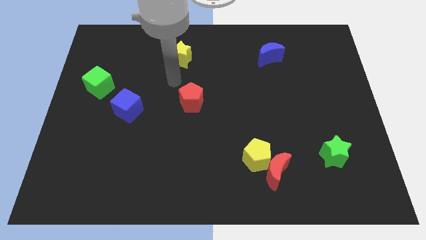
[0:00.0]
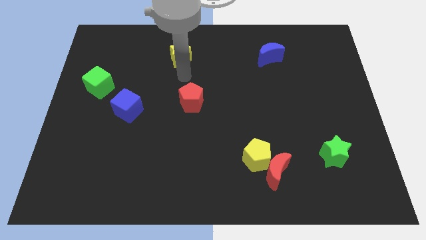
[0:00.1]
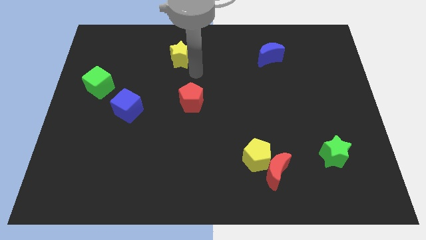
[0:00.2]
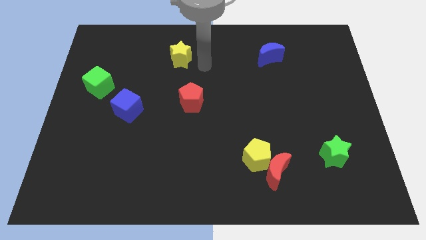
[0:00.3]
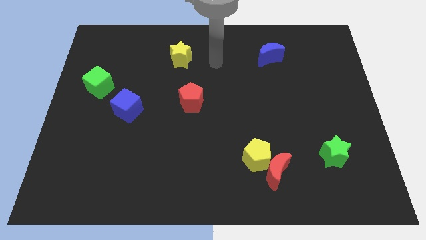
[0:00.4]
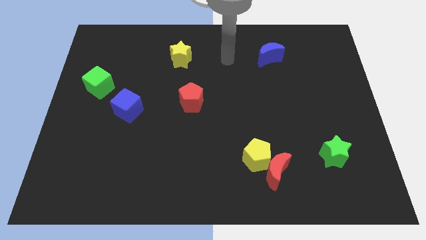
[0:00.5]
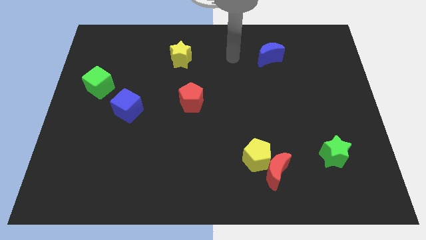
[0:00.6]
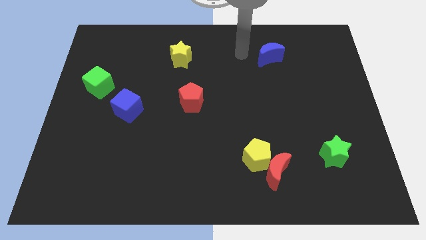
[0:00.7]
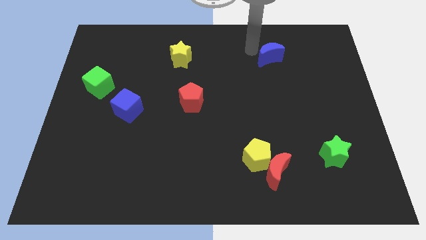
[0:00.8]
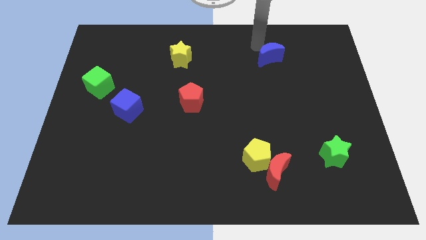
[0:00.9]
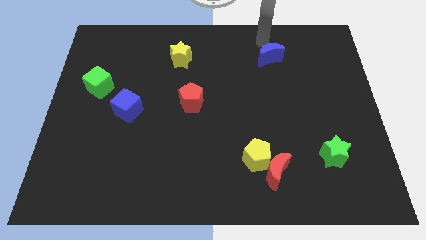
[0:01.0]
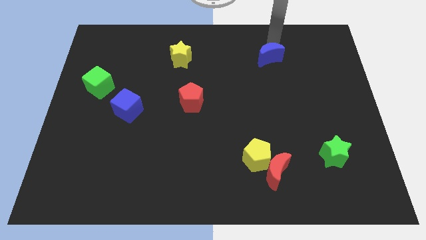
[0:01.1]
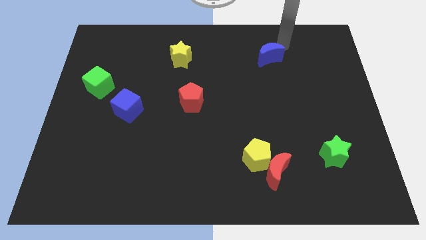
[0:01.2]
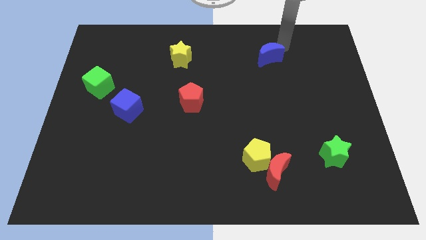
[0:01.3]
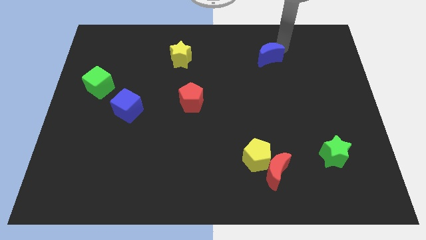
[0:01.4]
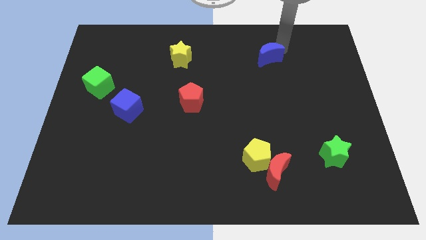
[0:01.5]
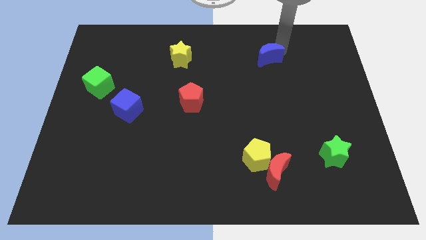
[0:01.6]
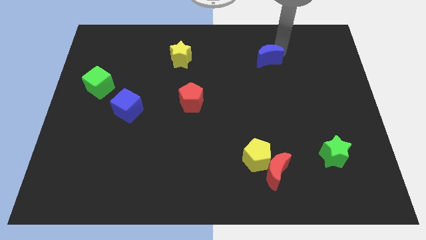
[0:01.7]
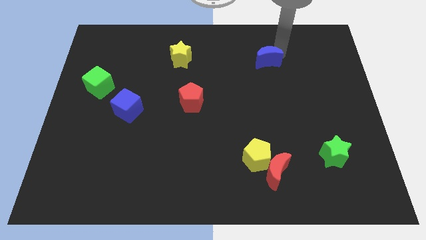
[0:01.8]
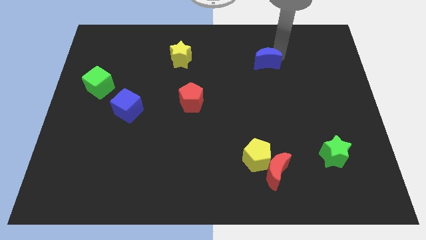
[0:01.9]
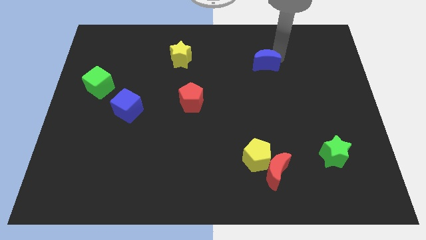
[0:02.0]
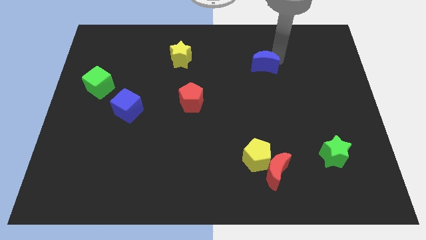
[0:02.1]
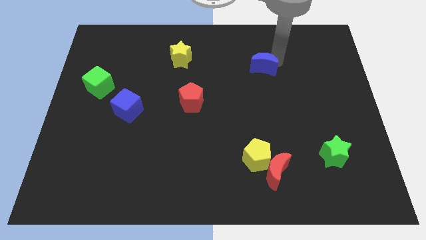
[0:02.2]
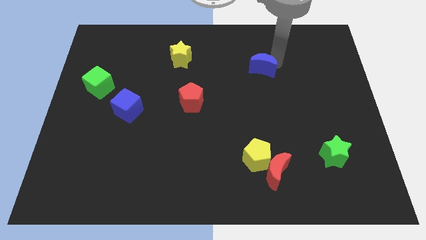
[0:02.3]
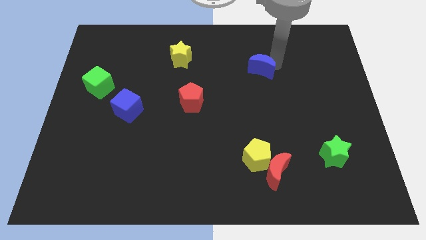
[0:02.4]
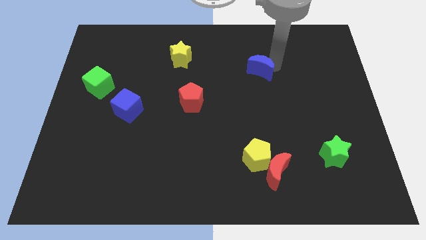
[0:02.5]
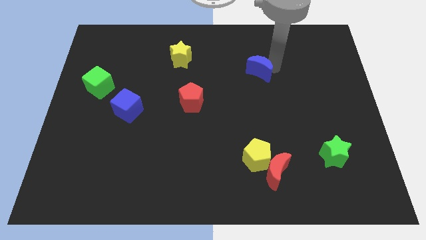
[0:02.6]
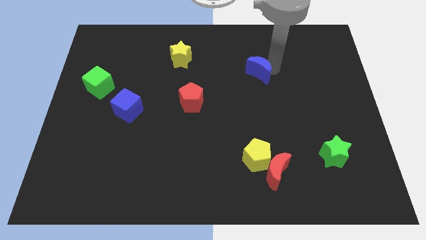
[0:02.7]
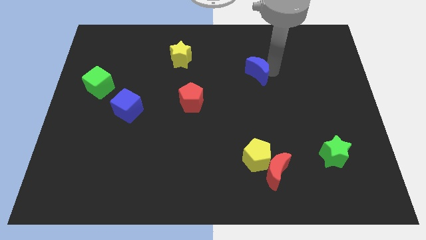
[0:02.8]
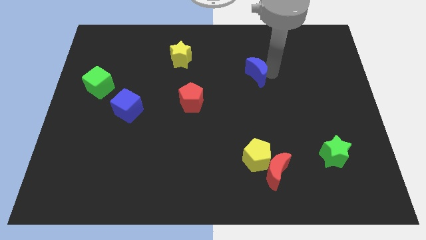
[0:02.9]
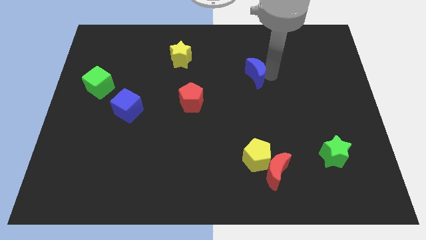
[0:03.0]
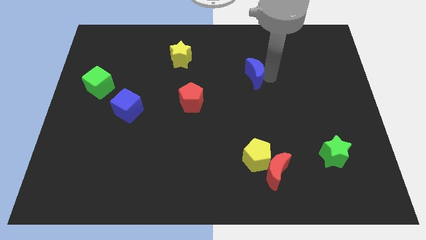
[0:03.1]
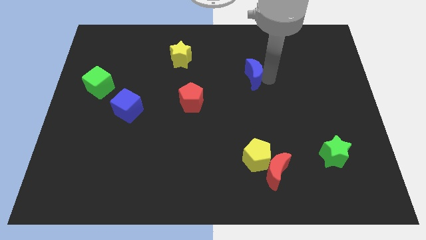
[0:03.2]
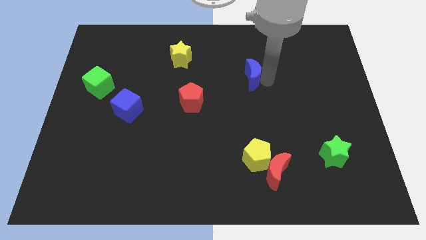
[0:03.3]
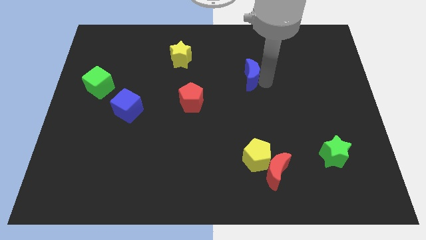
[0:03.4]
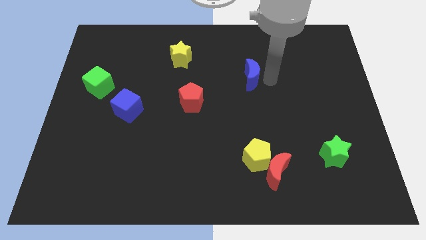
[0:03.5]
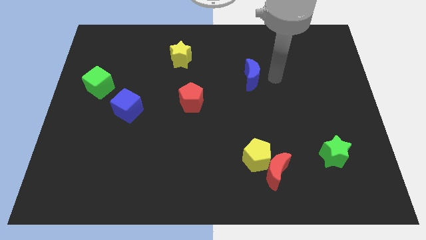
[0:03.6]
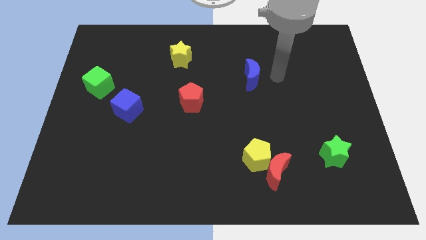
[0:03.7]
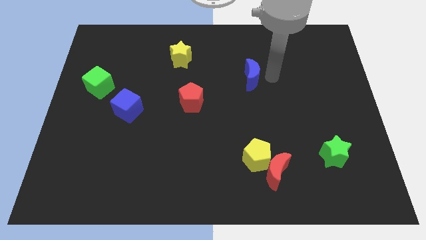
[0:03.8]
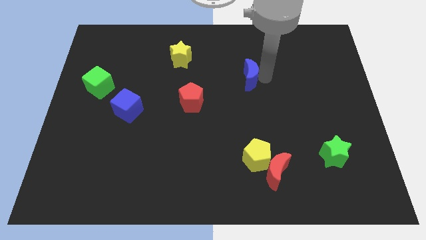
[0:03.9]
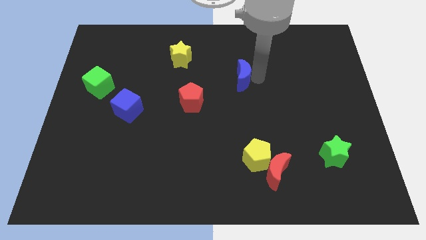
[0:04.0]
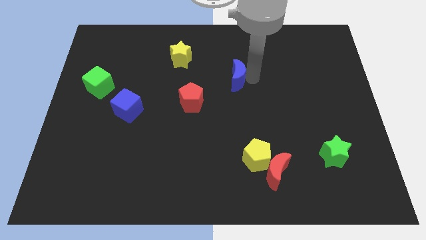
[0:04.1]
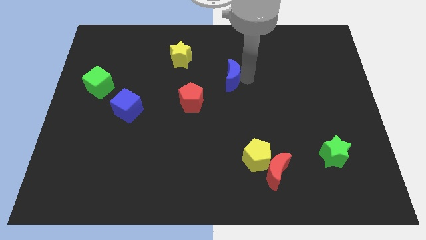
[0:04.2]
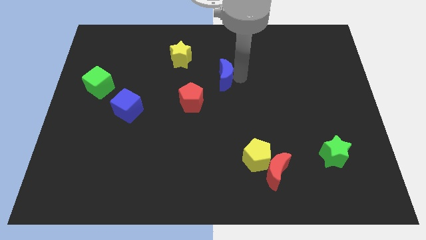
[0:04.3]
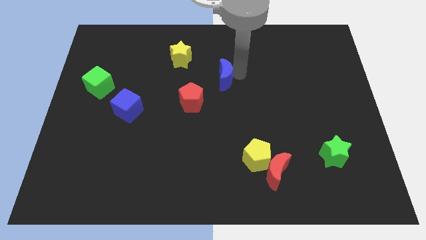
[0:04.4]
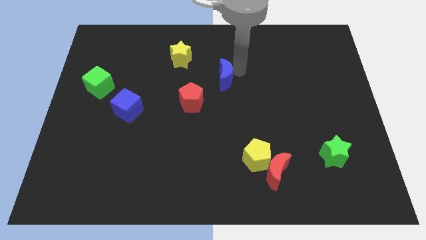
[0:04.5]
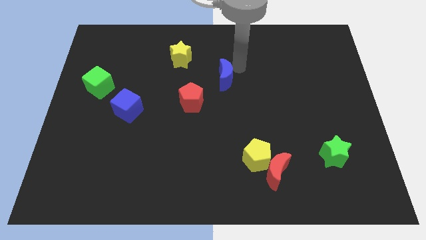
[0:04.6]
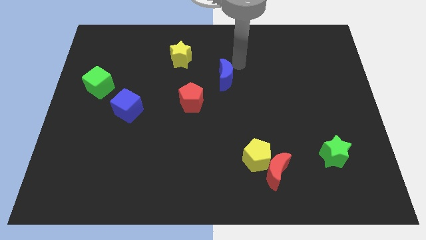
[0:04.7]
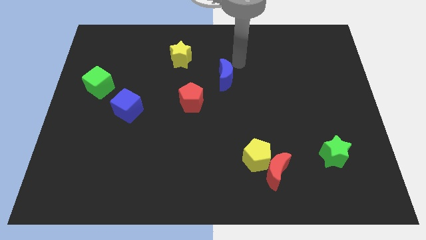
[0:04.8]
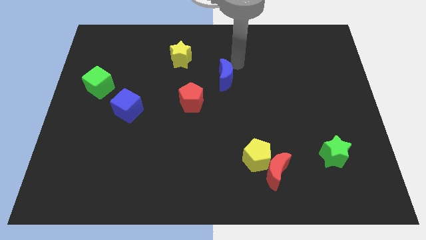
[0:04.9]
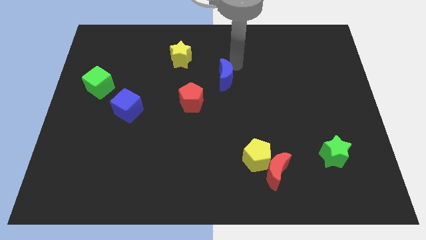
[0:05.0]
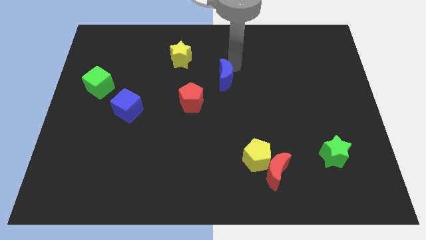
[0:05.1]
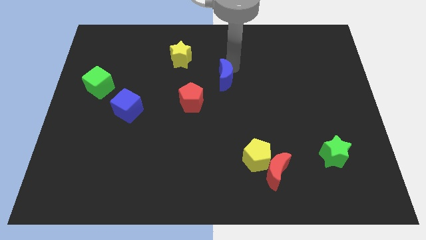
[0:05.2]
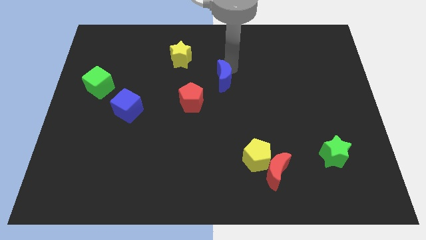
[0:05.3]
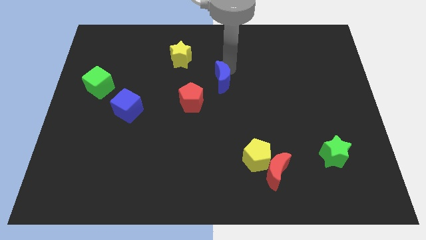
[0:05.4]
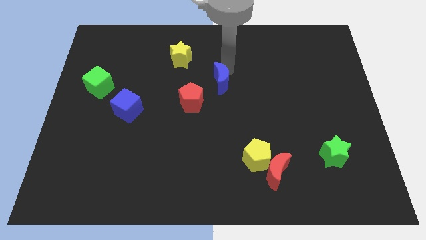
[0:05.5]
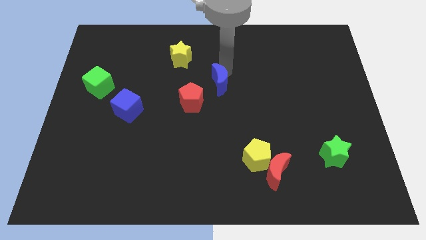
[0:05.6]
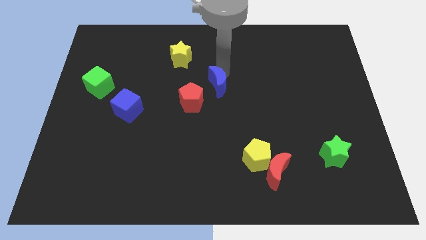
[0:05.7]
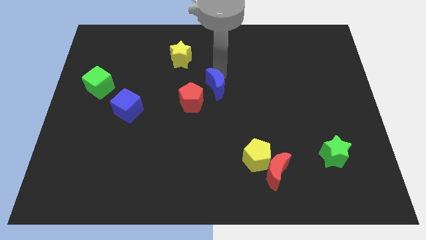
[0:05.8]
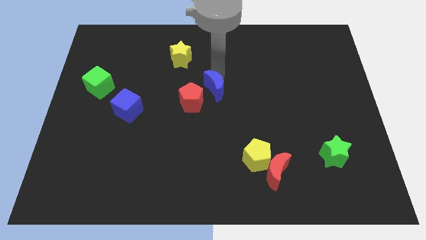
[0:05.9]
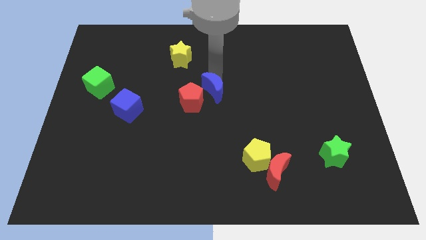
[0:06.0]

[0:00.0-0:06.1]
move the blue moon next to the red pentagon

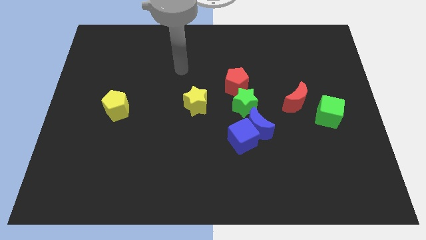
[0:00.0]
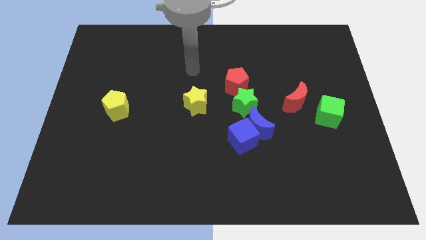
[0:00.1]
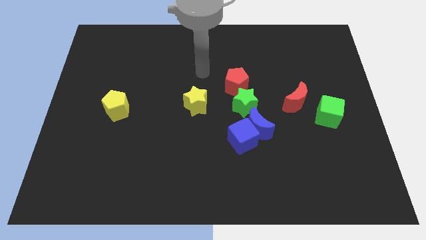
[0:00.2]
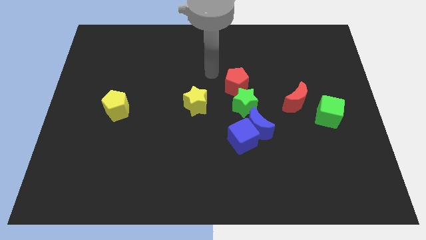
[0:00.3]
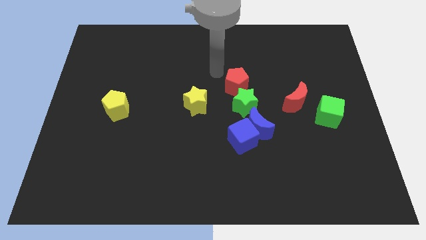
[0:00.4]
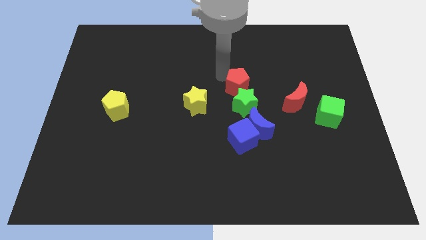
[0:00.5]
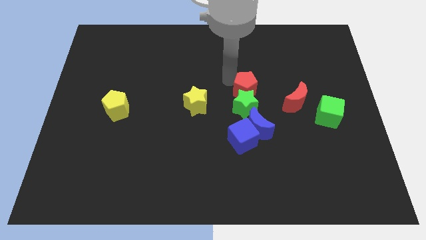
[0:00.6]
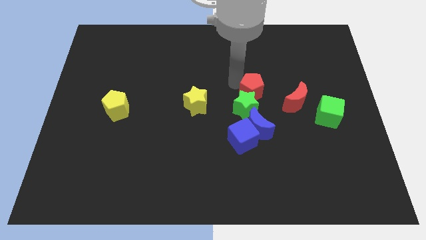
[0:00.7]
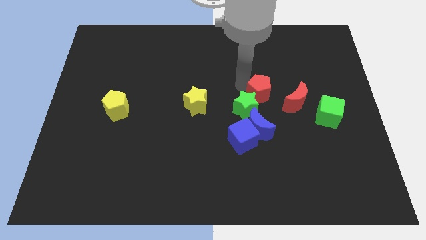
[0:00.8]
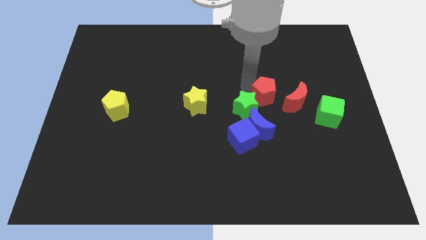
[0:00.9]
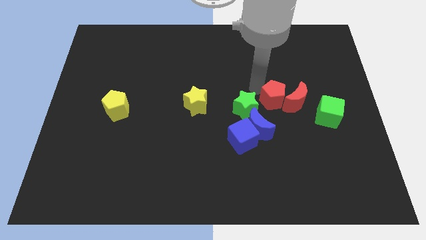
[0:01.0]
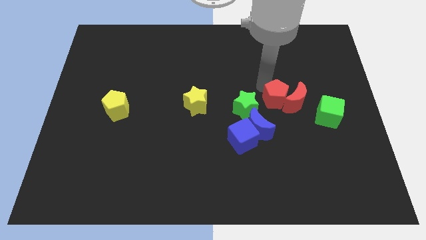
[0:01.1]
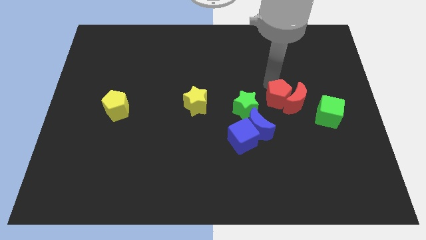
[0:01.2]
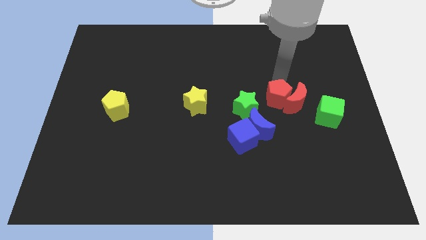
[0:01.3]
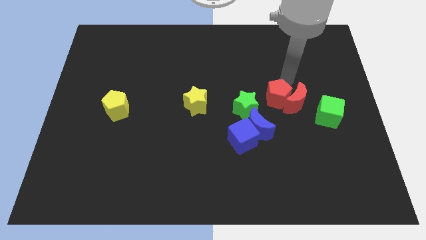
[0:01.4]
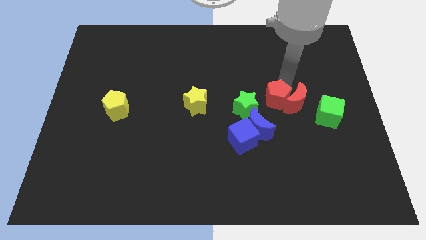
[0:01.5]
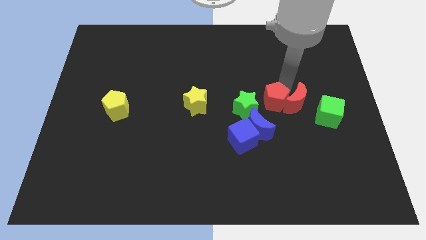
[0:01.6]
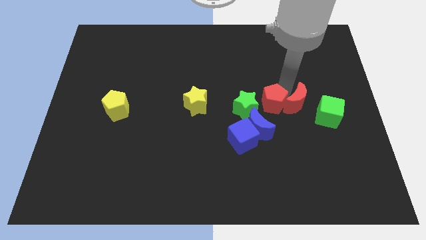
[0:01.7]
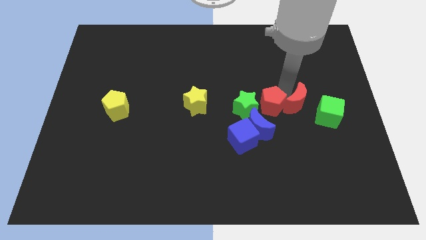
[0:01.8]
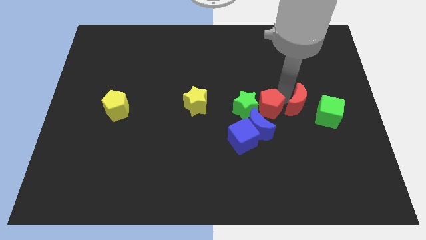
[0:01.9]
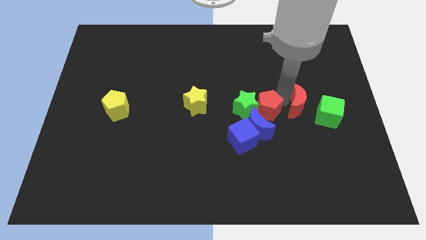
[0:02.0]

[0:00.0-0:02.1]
put the red pentagon next to the blue moon
